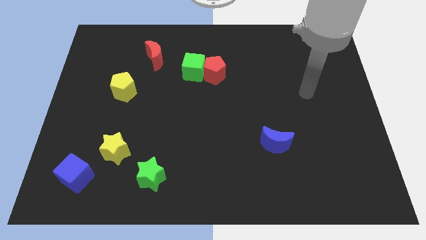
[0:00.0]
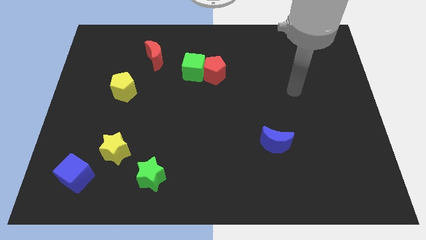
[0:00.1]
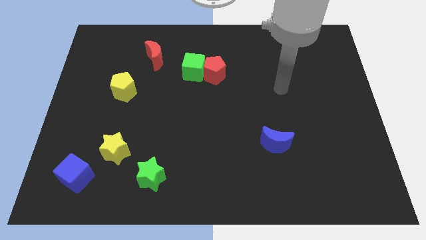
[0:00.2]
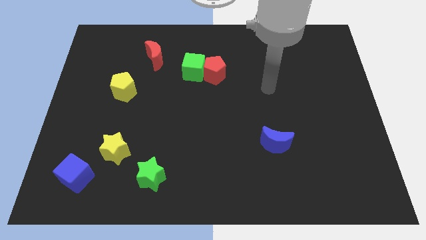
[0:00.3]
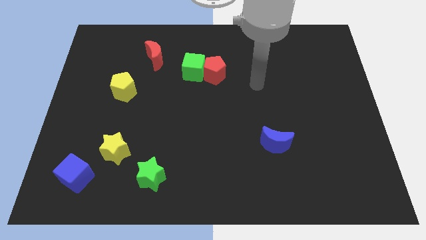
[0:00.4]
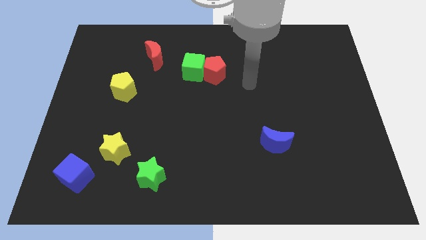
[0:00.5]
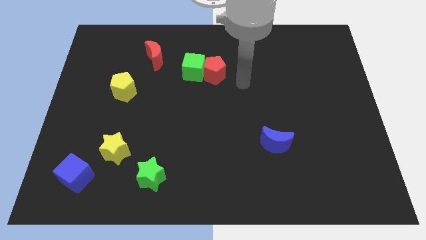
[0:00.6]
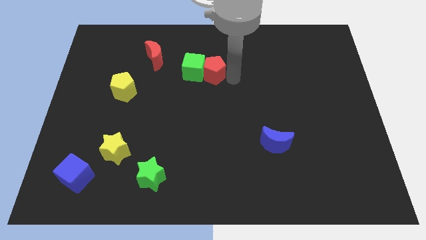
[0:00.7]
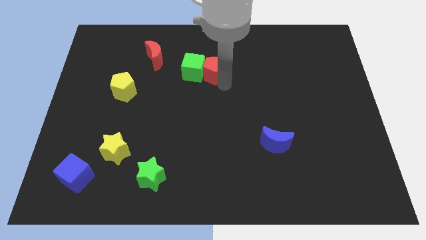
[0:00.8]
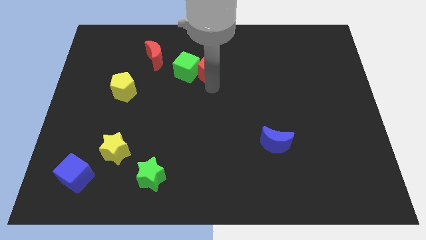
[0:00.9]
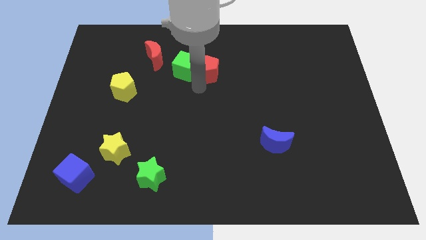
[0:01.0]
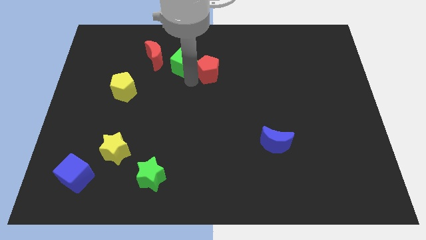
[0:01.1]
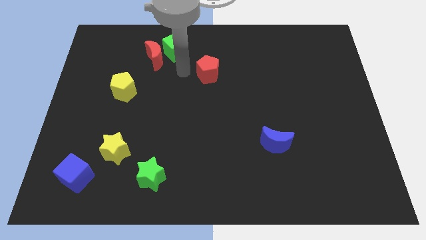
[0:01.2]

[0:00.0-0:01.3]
move the red pentagon away from the green cube

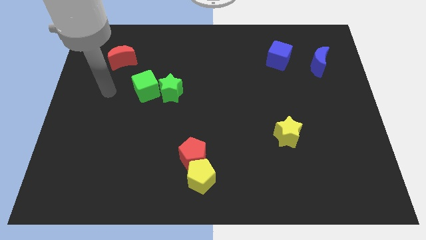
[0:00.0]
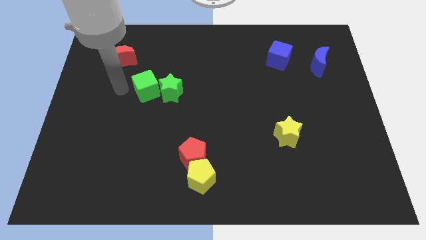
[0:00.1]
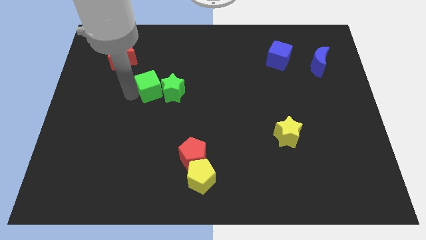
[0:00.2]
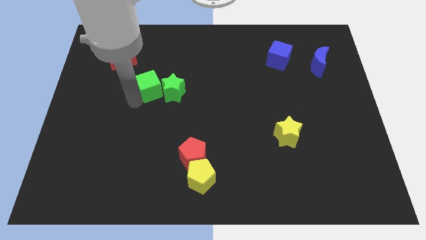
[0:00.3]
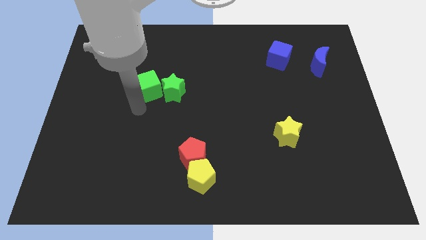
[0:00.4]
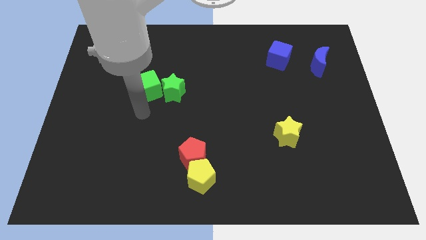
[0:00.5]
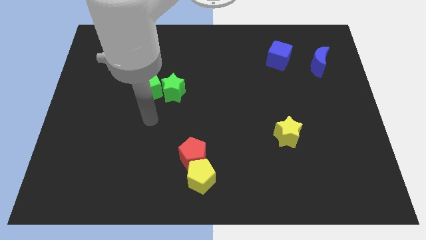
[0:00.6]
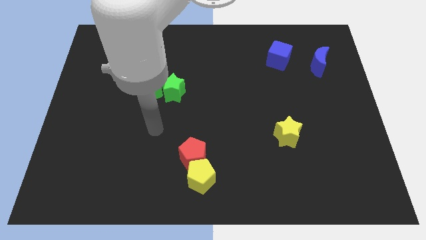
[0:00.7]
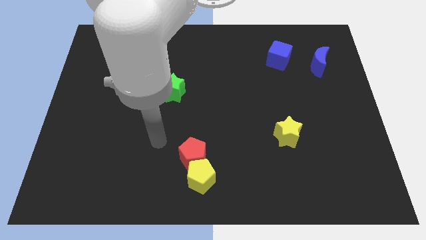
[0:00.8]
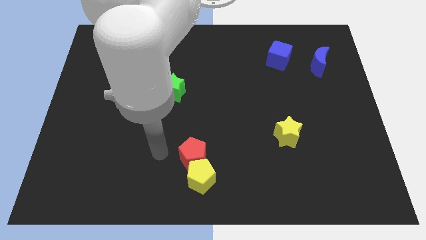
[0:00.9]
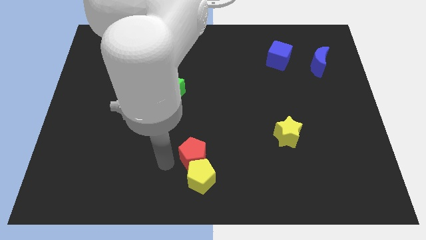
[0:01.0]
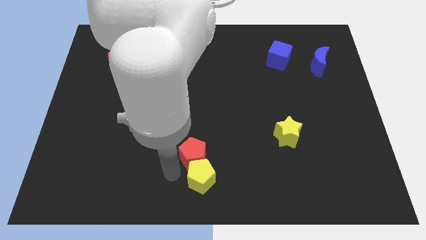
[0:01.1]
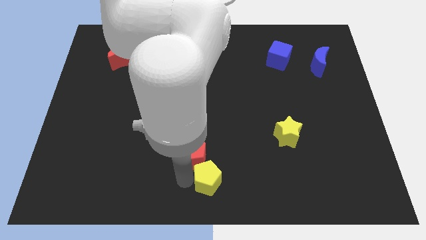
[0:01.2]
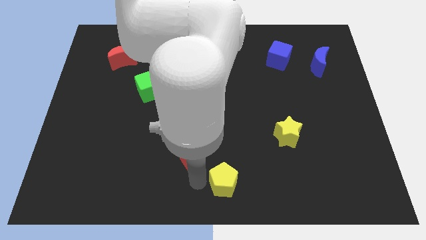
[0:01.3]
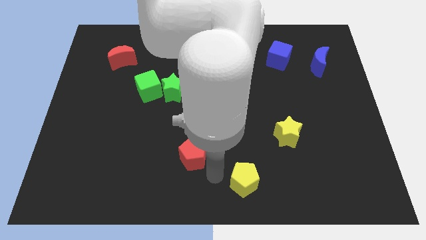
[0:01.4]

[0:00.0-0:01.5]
move the red pentagon away from the yellow pentagon

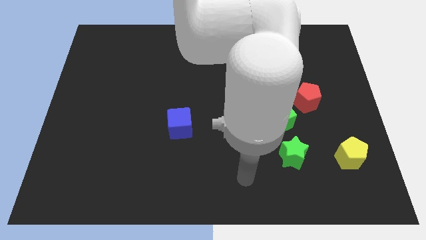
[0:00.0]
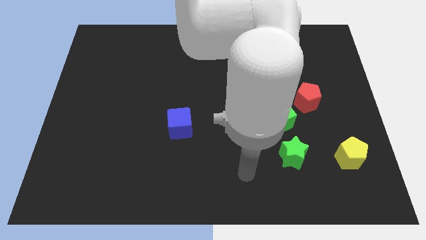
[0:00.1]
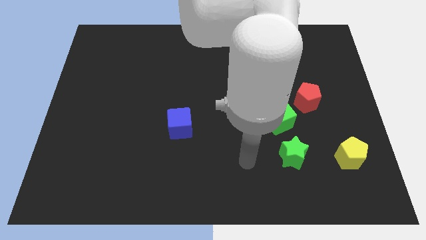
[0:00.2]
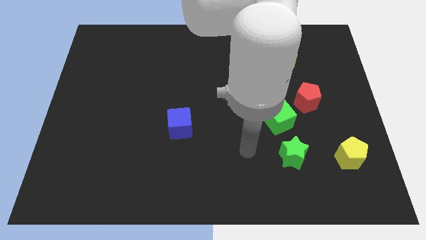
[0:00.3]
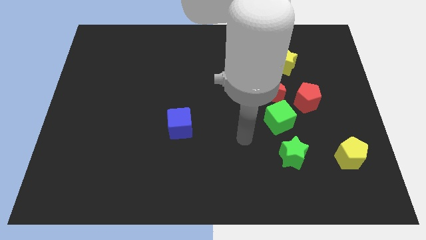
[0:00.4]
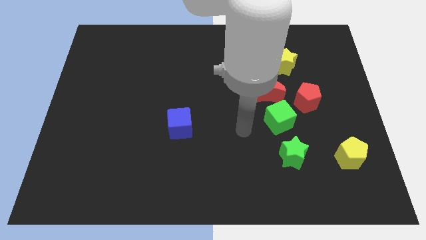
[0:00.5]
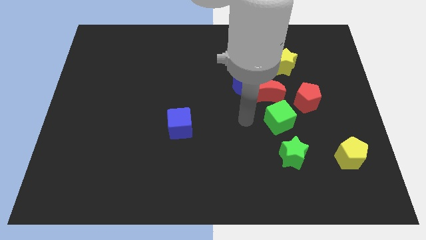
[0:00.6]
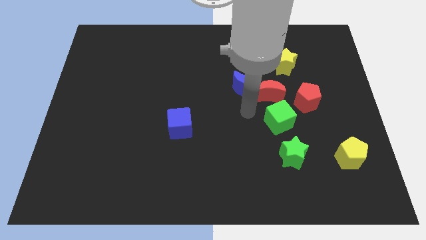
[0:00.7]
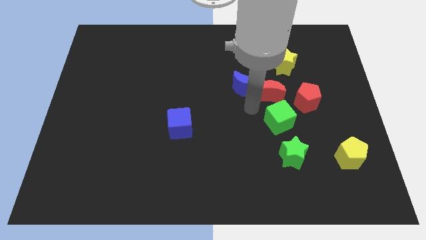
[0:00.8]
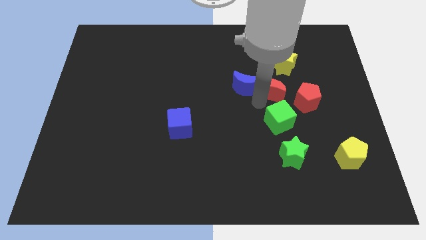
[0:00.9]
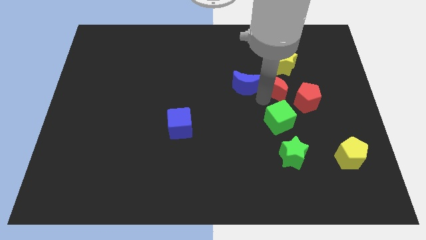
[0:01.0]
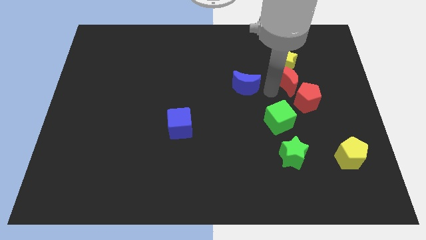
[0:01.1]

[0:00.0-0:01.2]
separate the blue moon from the red moon

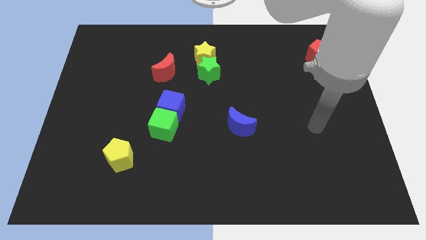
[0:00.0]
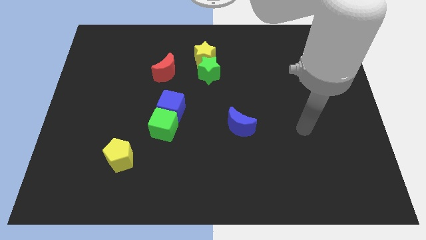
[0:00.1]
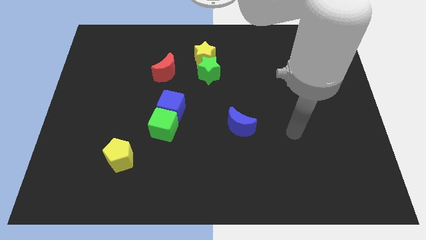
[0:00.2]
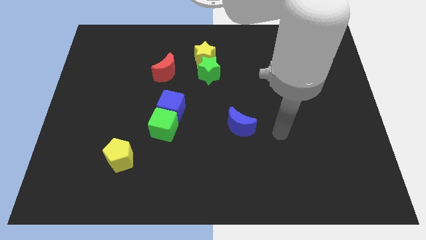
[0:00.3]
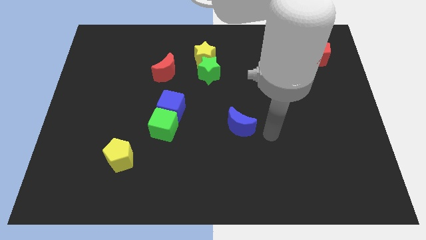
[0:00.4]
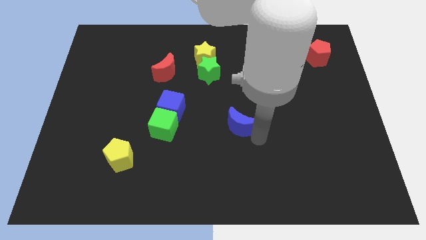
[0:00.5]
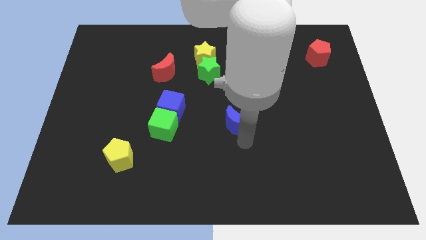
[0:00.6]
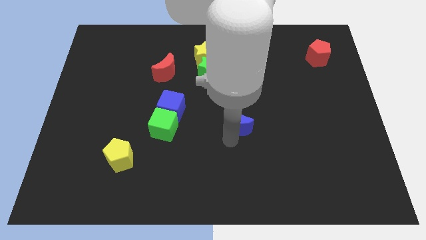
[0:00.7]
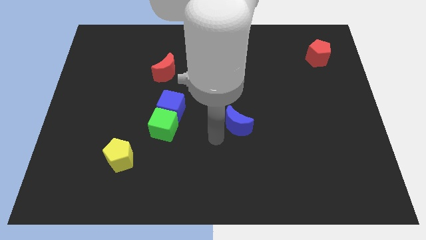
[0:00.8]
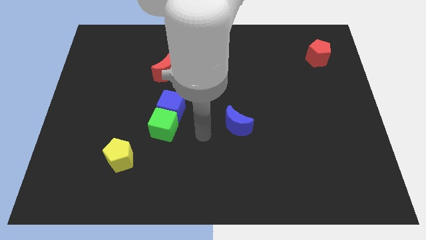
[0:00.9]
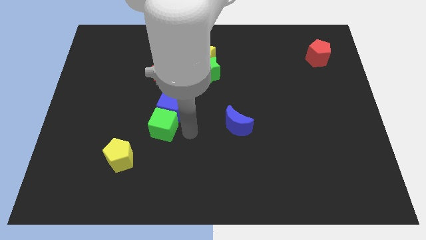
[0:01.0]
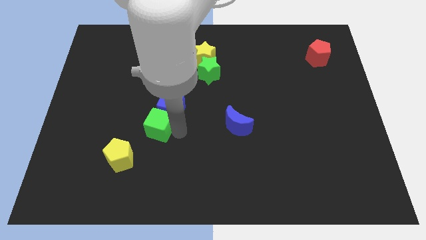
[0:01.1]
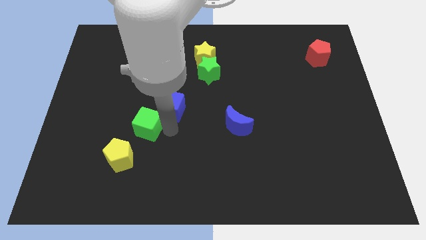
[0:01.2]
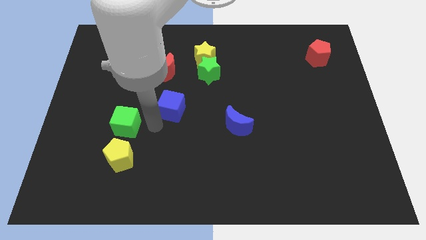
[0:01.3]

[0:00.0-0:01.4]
pull the blue cube apart from the green cube

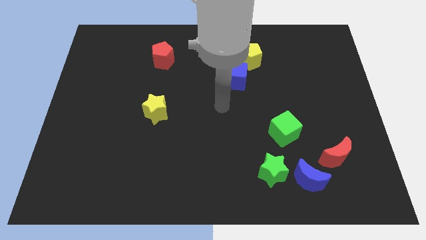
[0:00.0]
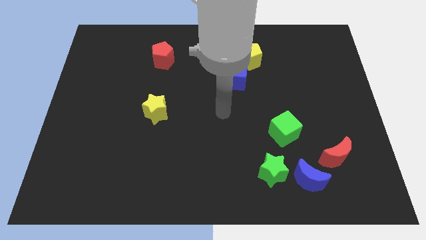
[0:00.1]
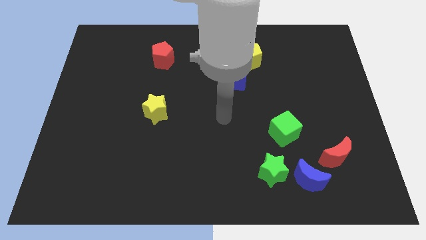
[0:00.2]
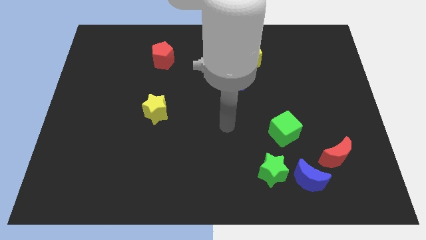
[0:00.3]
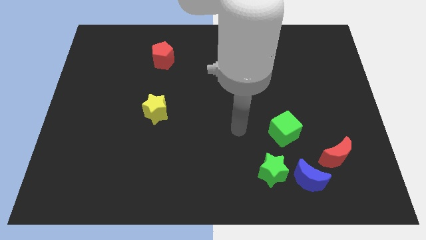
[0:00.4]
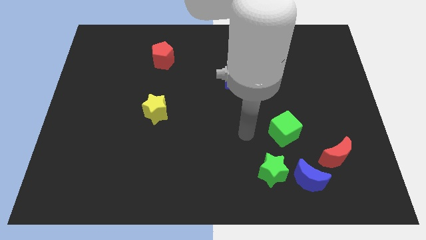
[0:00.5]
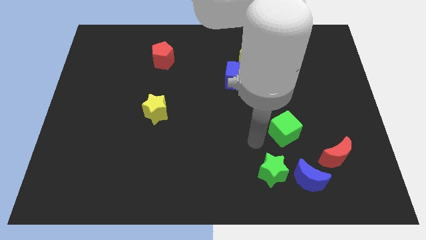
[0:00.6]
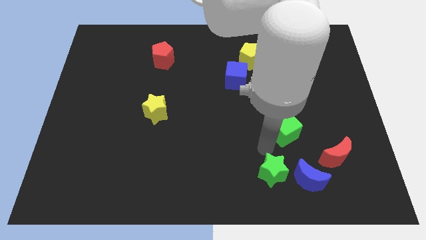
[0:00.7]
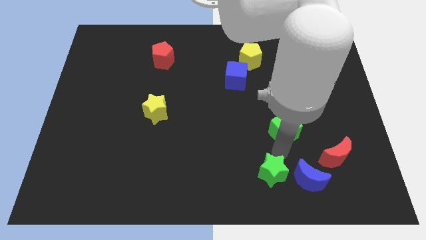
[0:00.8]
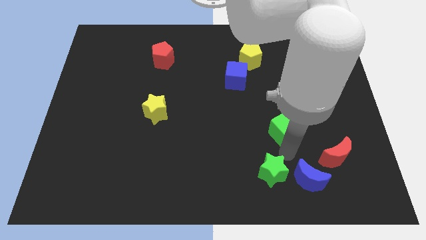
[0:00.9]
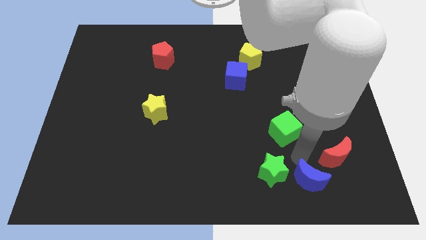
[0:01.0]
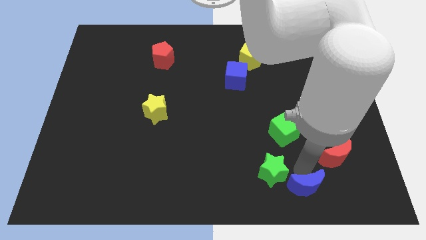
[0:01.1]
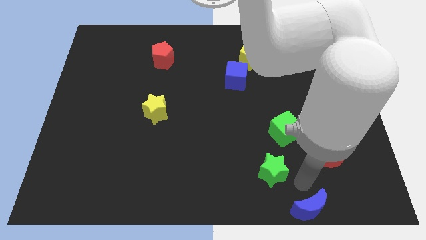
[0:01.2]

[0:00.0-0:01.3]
pull the green star apart from the blue moon

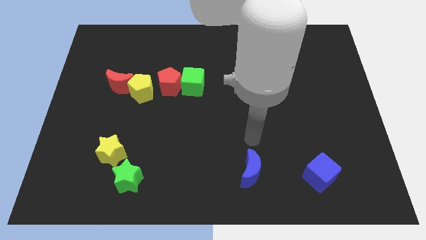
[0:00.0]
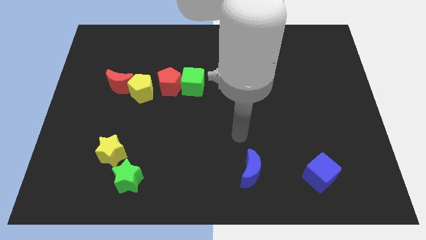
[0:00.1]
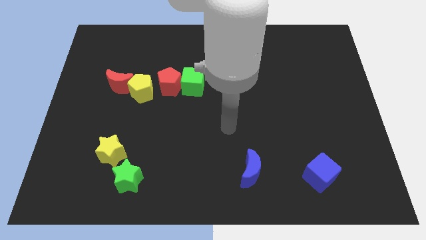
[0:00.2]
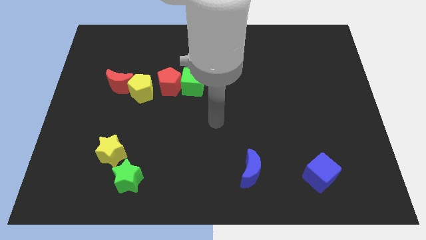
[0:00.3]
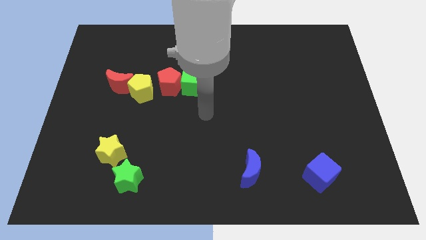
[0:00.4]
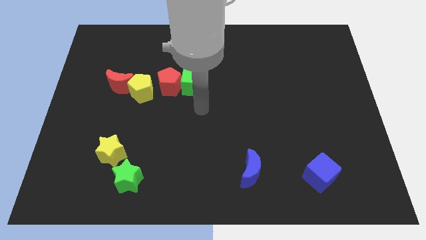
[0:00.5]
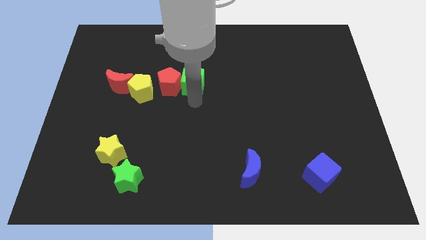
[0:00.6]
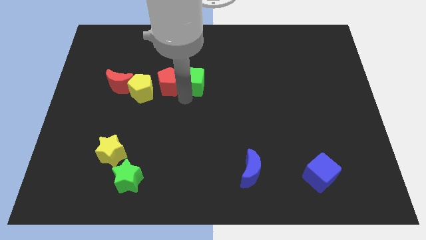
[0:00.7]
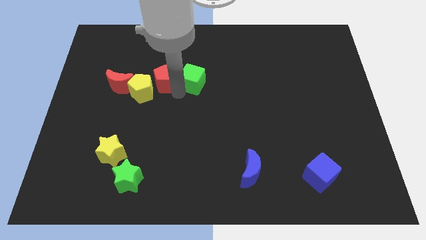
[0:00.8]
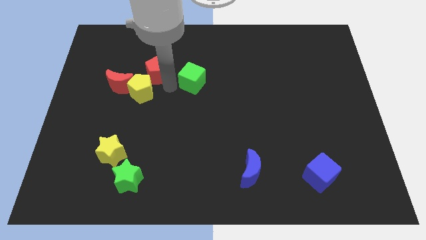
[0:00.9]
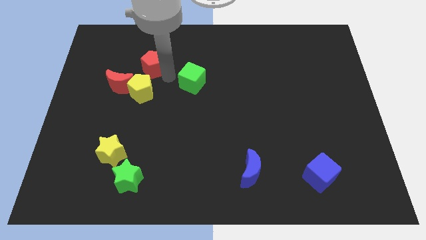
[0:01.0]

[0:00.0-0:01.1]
separate the green cube from the red pentagon

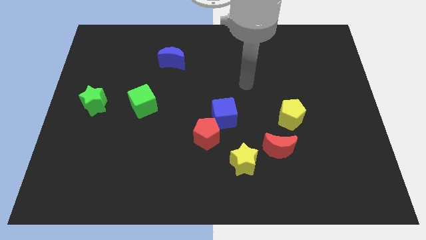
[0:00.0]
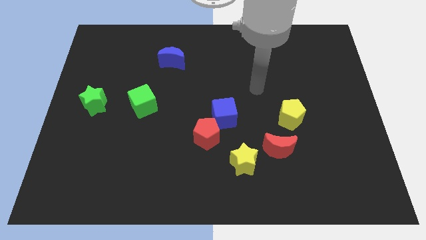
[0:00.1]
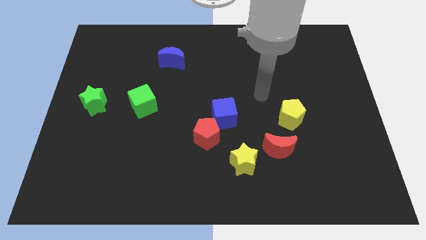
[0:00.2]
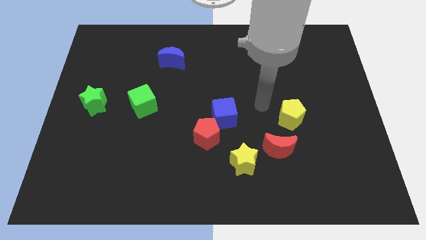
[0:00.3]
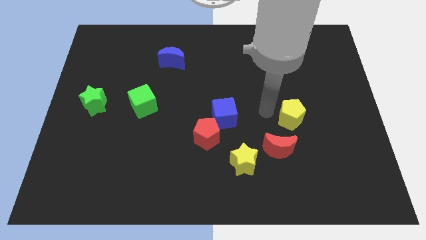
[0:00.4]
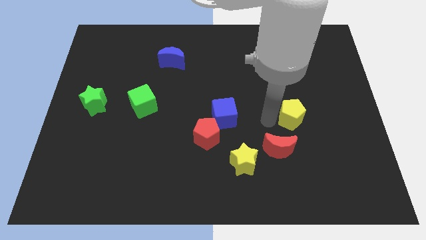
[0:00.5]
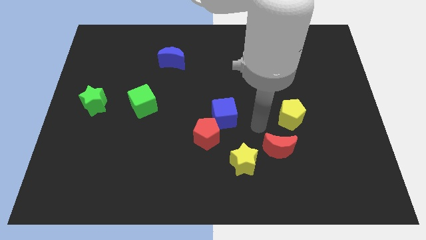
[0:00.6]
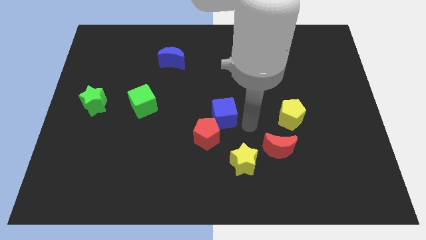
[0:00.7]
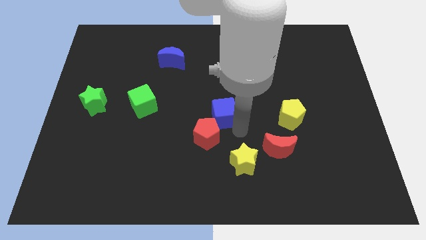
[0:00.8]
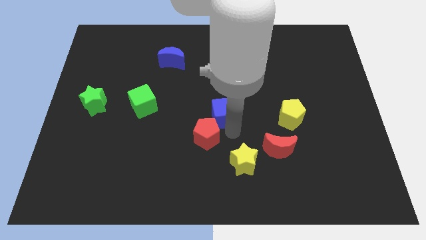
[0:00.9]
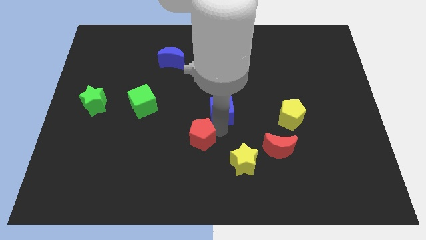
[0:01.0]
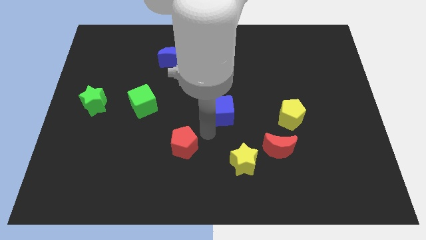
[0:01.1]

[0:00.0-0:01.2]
pull the blue cube apart from the red pentagon

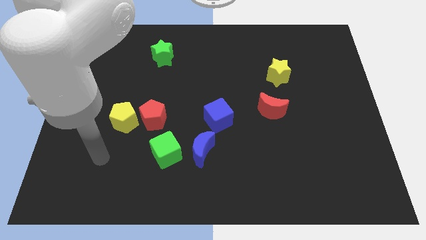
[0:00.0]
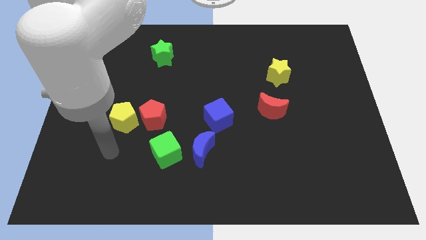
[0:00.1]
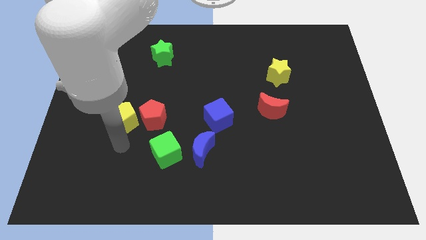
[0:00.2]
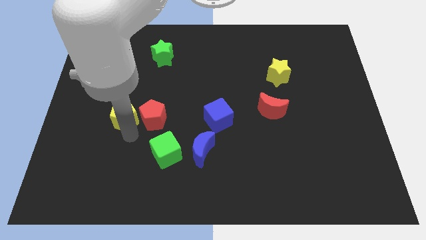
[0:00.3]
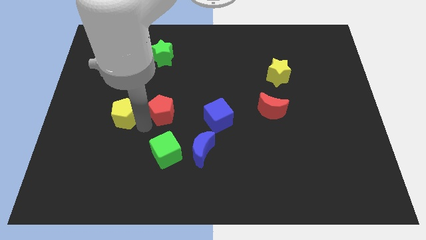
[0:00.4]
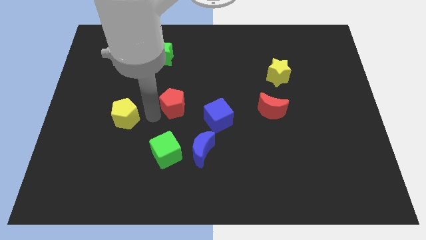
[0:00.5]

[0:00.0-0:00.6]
separate the yellow pentagon from the red pentagon
